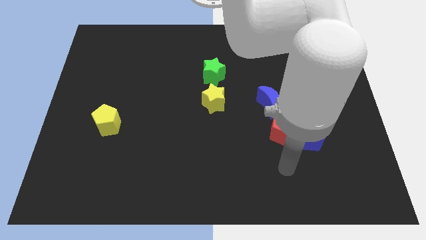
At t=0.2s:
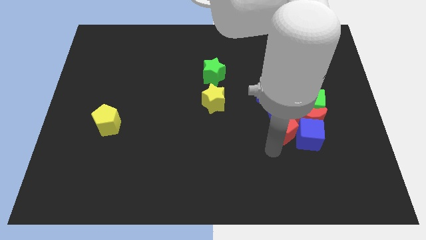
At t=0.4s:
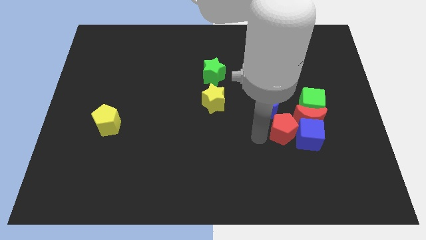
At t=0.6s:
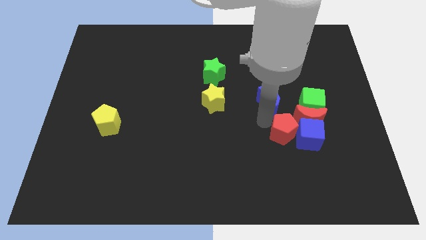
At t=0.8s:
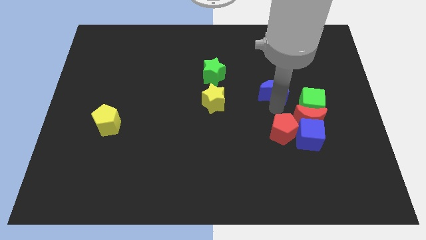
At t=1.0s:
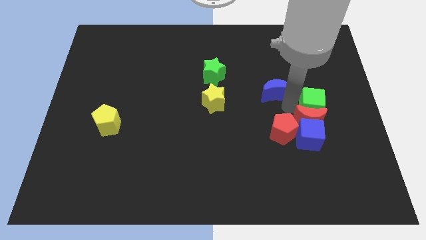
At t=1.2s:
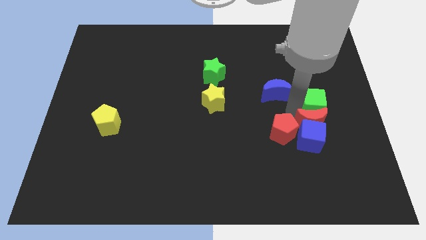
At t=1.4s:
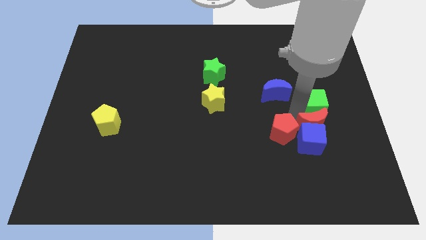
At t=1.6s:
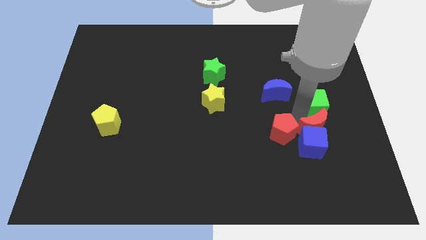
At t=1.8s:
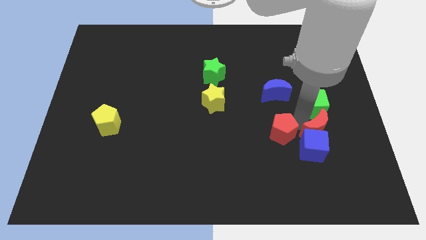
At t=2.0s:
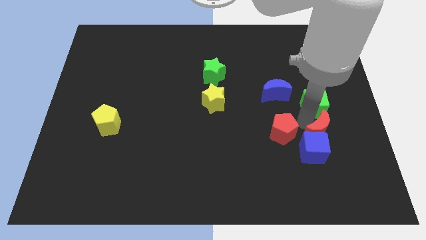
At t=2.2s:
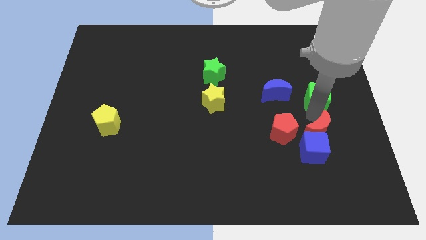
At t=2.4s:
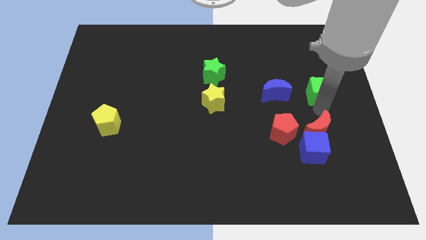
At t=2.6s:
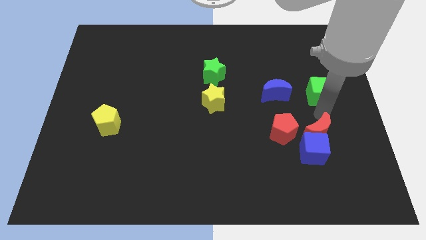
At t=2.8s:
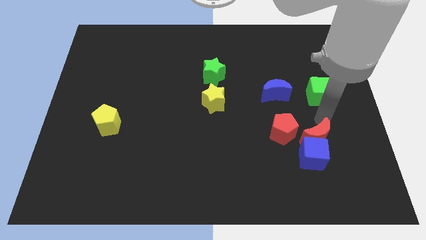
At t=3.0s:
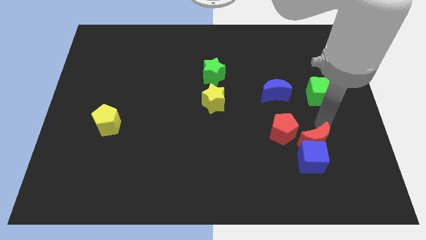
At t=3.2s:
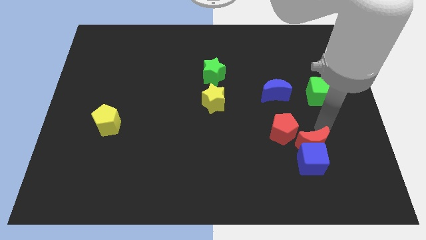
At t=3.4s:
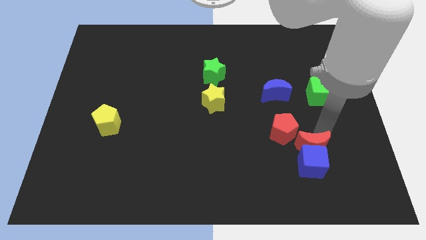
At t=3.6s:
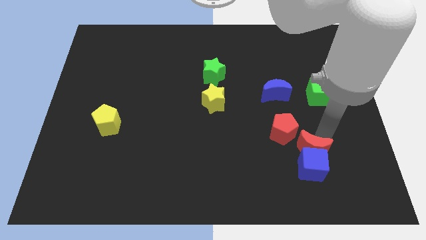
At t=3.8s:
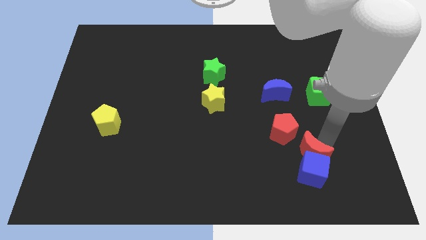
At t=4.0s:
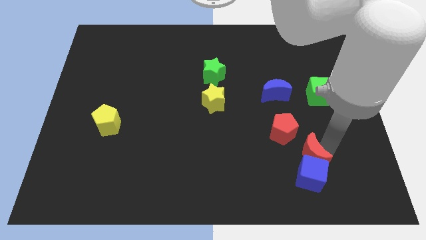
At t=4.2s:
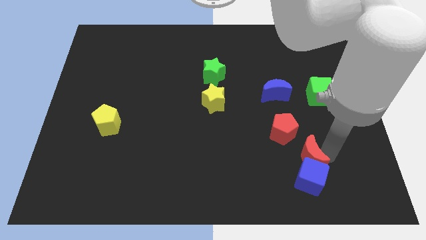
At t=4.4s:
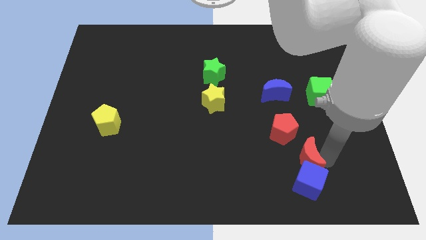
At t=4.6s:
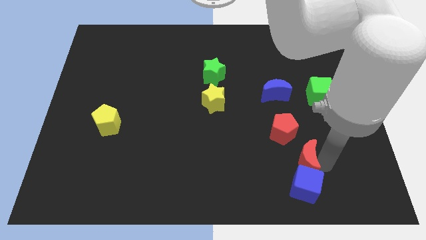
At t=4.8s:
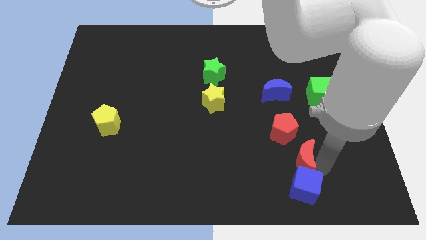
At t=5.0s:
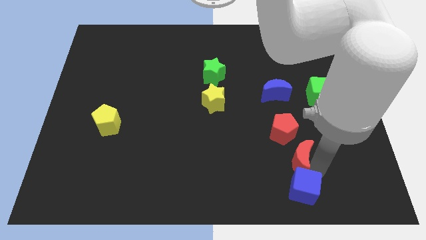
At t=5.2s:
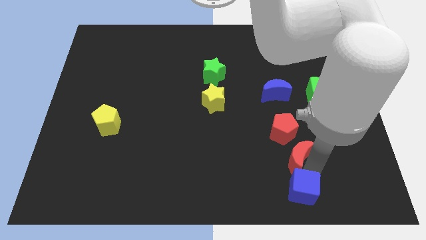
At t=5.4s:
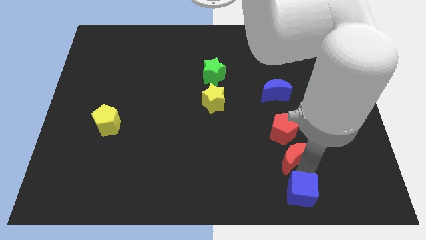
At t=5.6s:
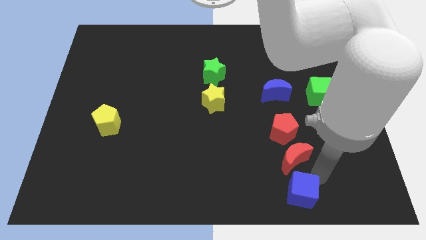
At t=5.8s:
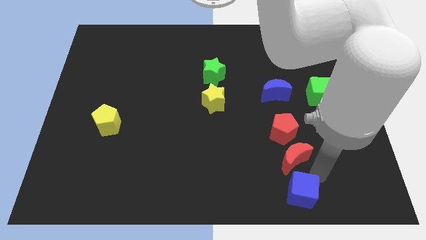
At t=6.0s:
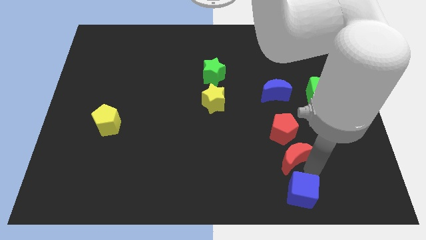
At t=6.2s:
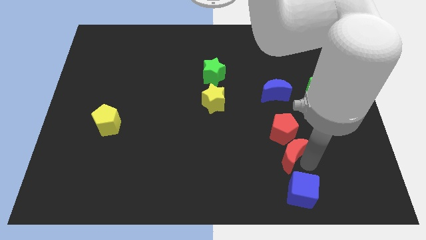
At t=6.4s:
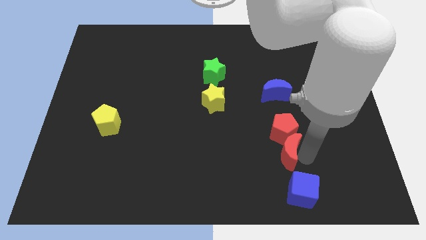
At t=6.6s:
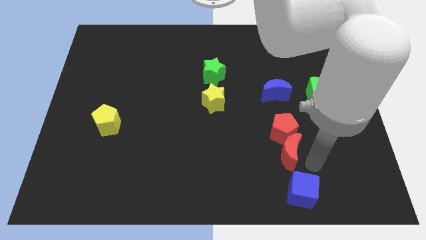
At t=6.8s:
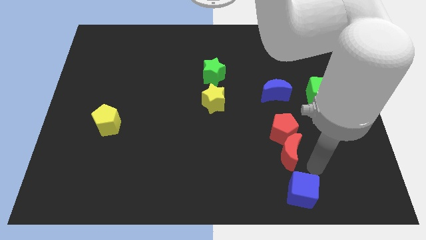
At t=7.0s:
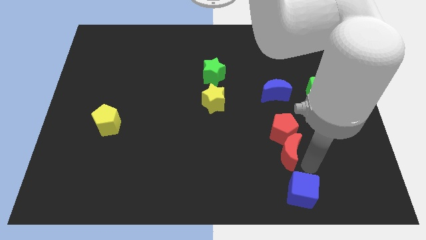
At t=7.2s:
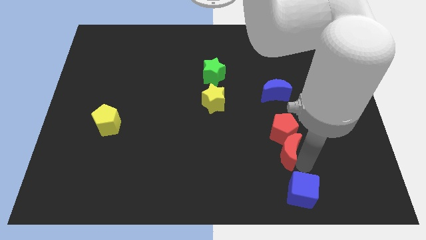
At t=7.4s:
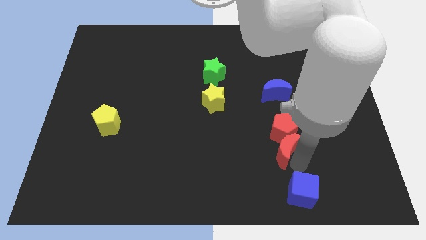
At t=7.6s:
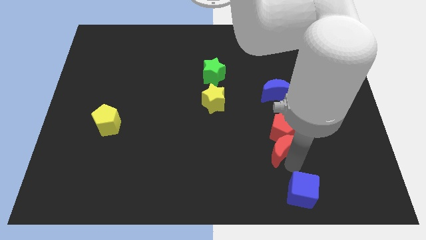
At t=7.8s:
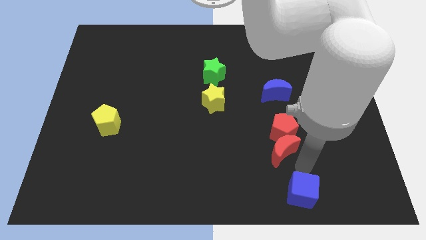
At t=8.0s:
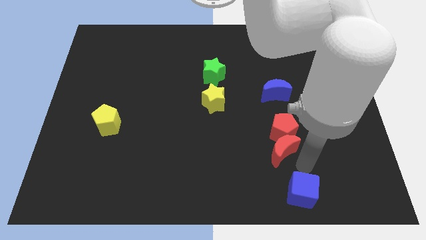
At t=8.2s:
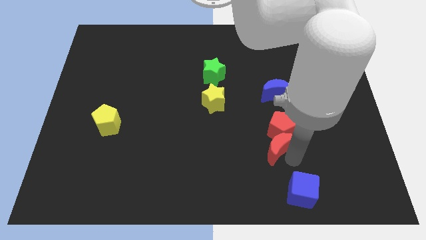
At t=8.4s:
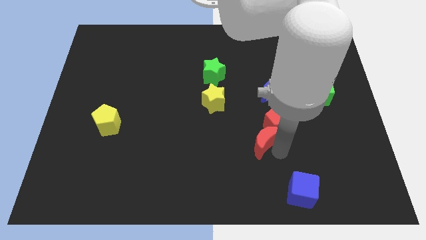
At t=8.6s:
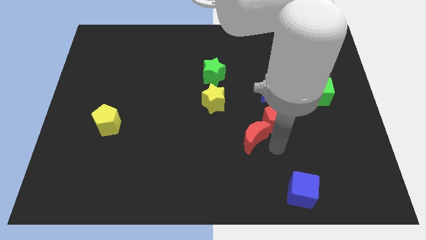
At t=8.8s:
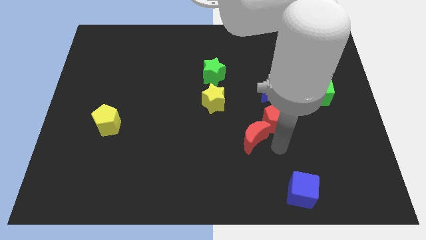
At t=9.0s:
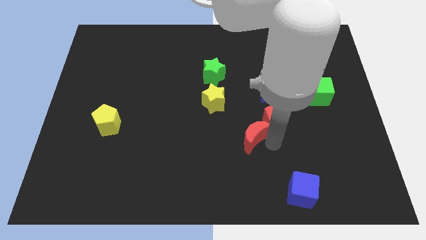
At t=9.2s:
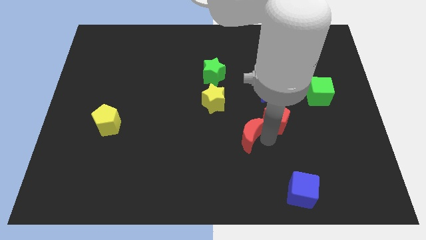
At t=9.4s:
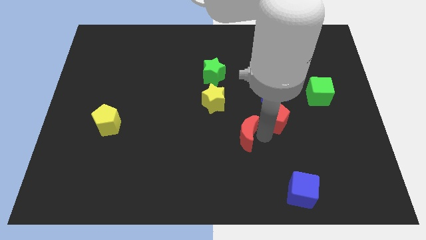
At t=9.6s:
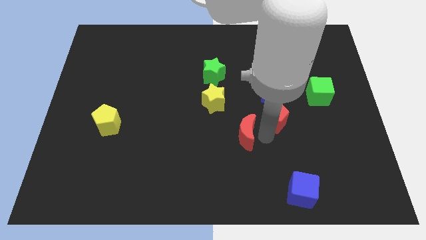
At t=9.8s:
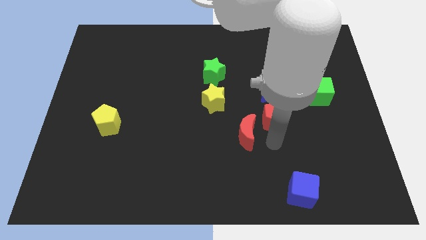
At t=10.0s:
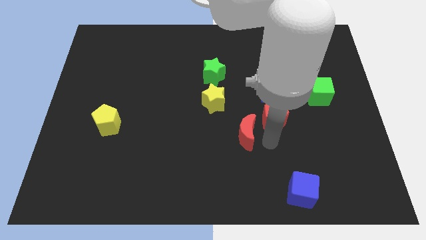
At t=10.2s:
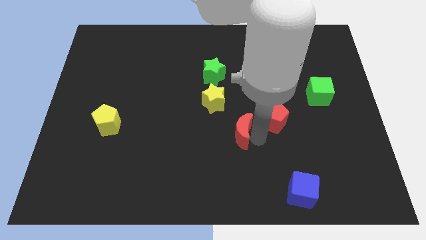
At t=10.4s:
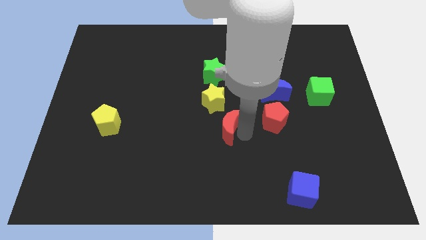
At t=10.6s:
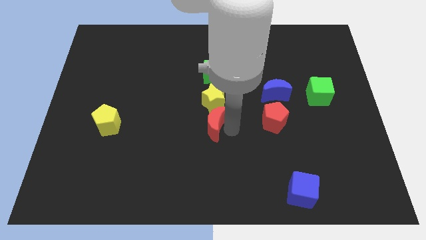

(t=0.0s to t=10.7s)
slide the red moon left

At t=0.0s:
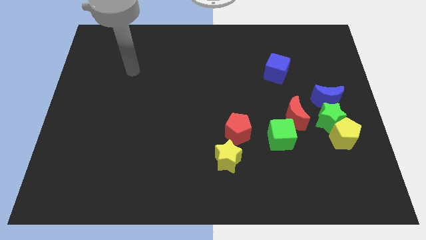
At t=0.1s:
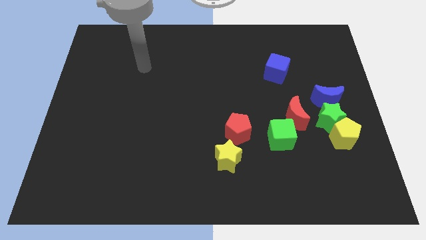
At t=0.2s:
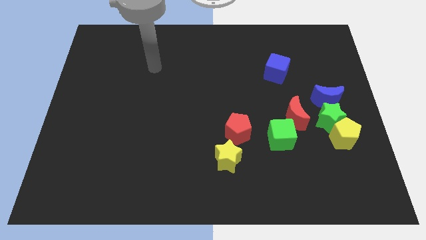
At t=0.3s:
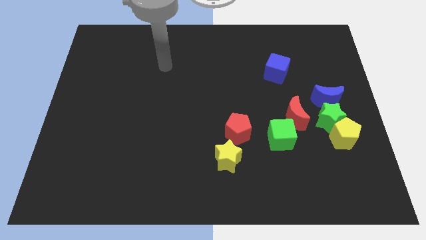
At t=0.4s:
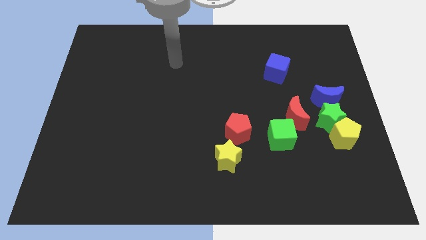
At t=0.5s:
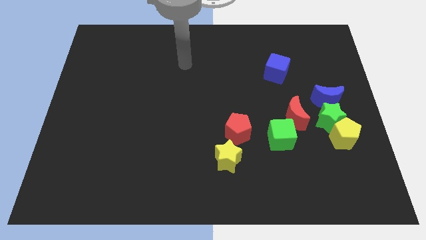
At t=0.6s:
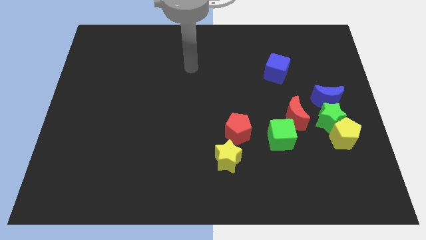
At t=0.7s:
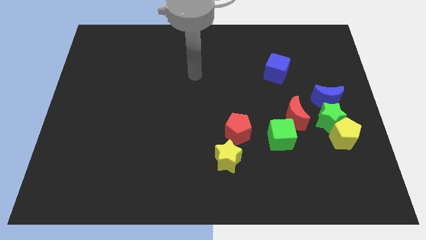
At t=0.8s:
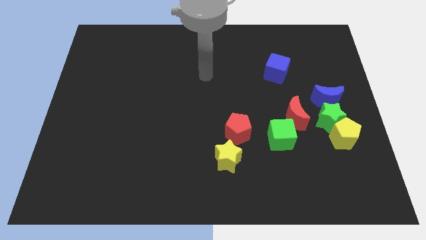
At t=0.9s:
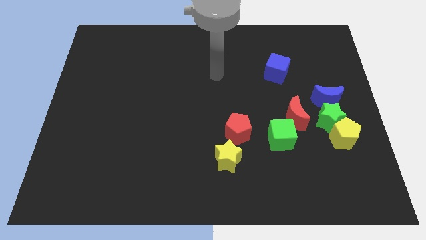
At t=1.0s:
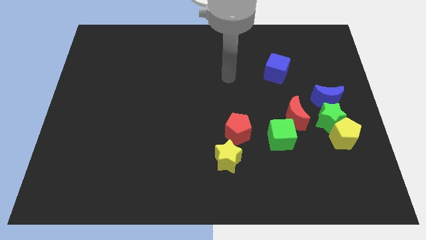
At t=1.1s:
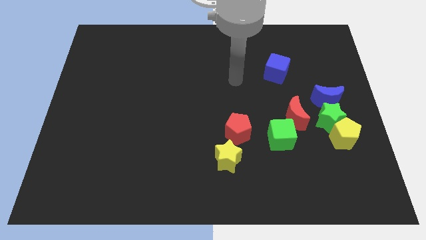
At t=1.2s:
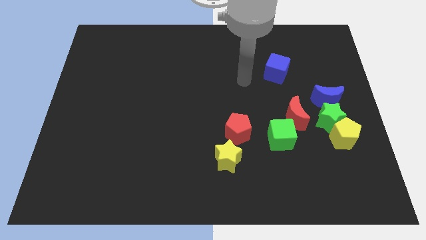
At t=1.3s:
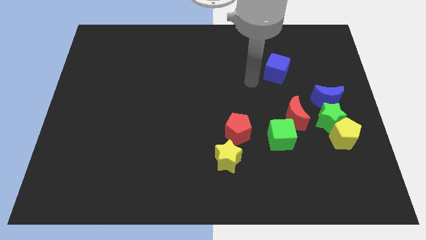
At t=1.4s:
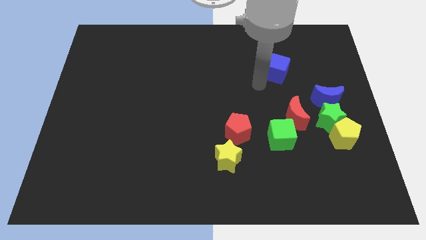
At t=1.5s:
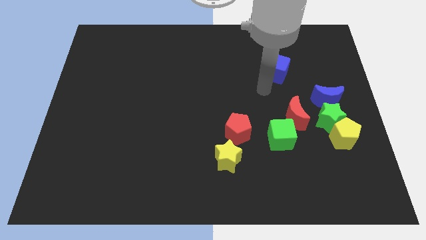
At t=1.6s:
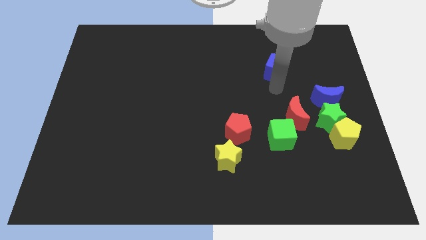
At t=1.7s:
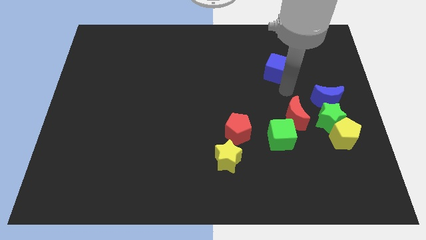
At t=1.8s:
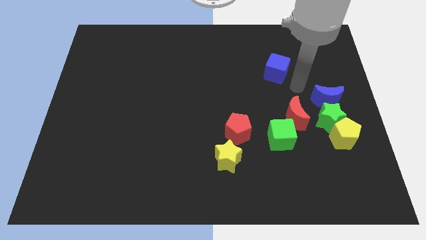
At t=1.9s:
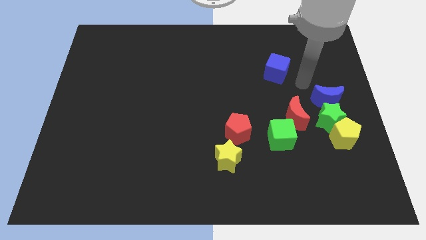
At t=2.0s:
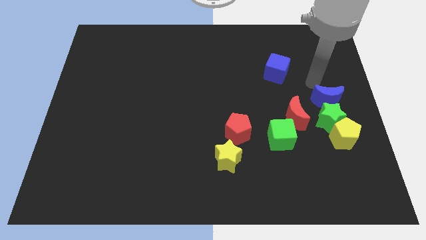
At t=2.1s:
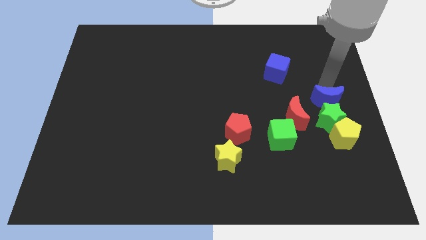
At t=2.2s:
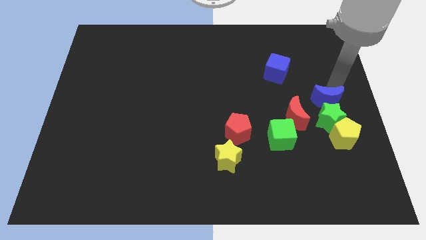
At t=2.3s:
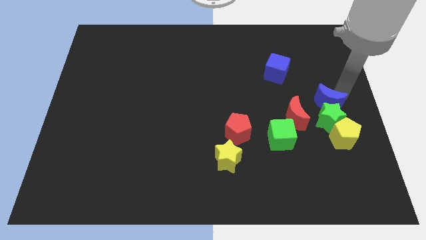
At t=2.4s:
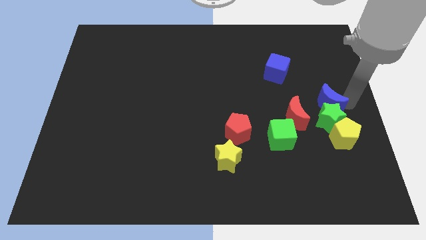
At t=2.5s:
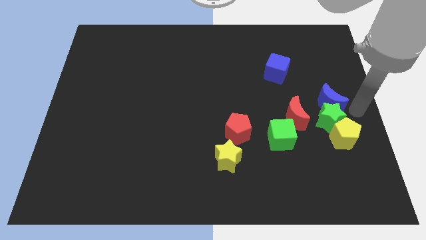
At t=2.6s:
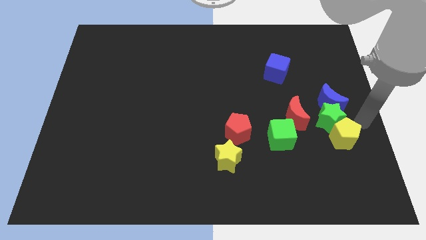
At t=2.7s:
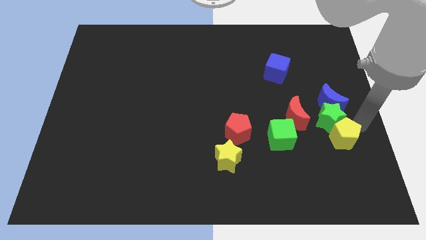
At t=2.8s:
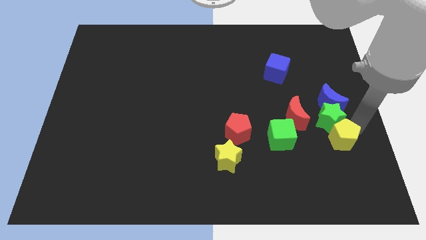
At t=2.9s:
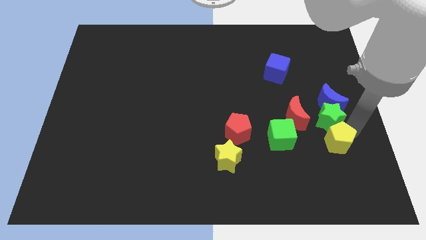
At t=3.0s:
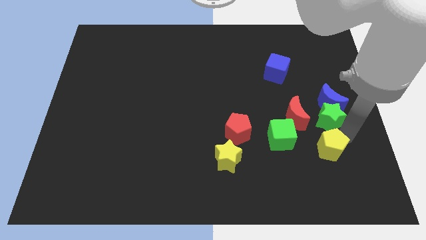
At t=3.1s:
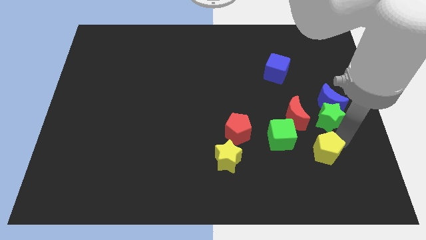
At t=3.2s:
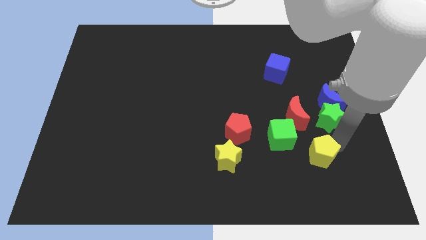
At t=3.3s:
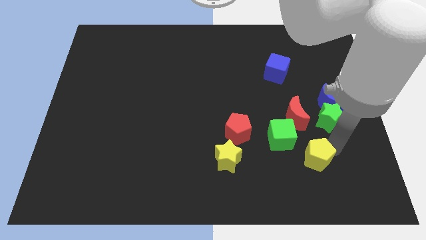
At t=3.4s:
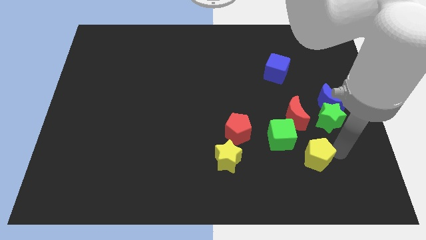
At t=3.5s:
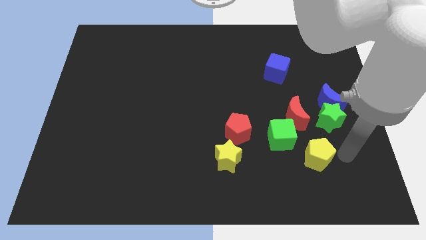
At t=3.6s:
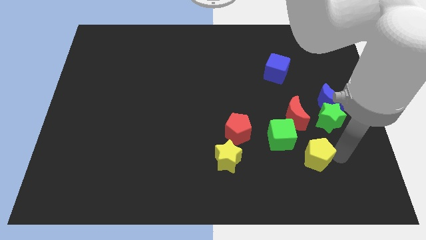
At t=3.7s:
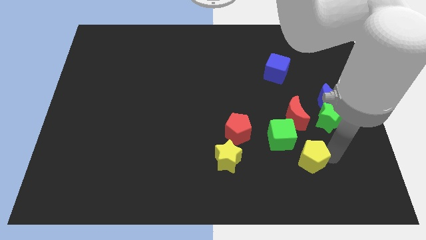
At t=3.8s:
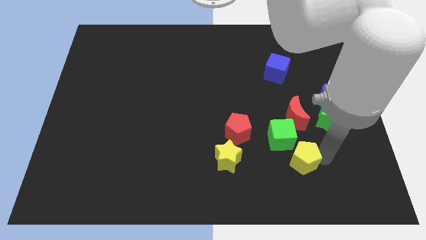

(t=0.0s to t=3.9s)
slide the yellow pentagon a little bit left
